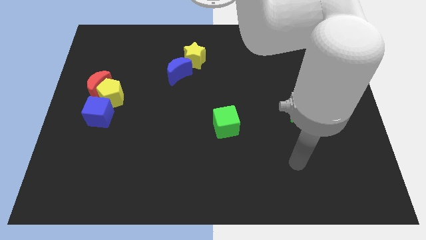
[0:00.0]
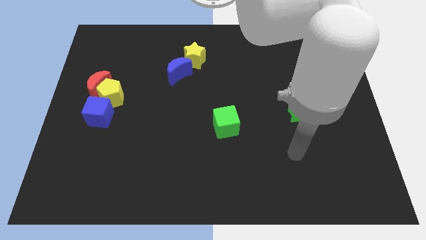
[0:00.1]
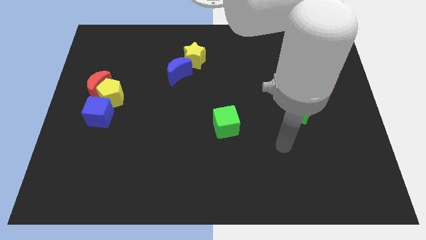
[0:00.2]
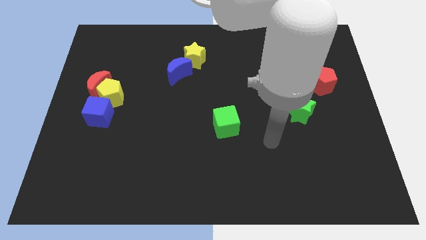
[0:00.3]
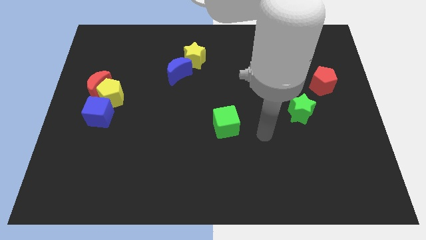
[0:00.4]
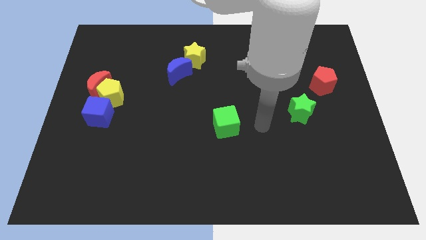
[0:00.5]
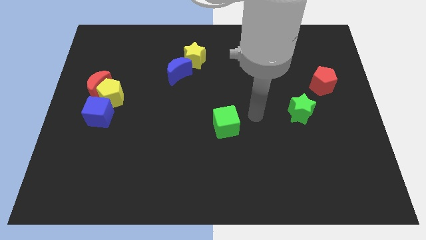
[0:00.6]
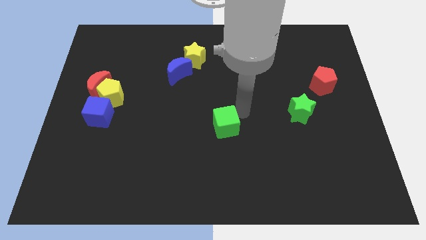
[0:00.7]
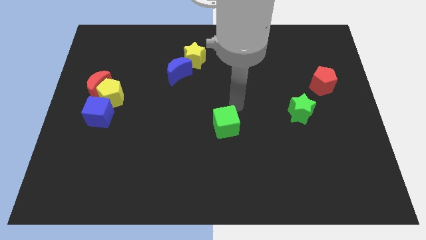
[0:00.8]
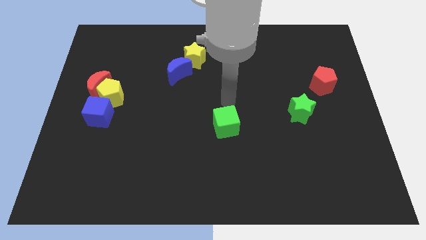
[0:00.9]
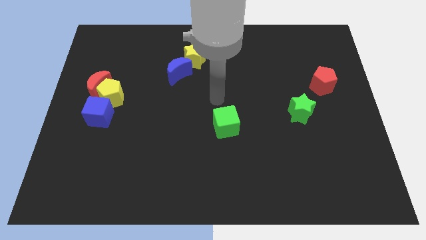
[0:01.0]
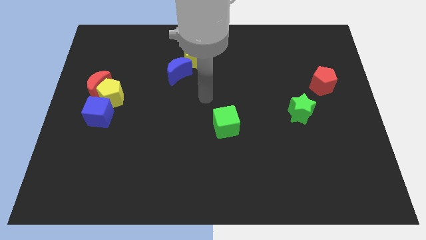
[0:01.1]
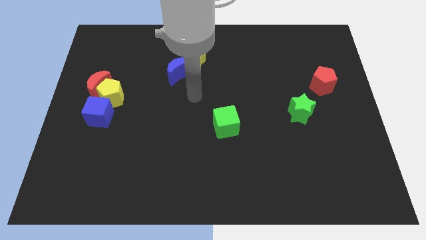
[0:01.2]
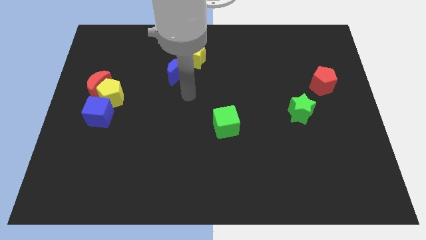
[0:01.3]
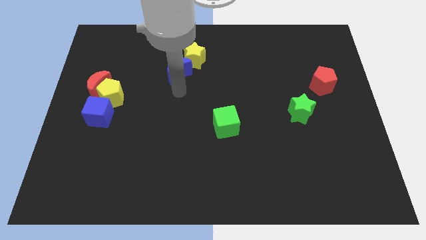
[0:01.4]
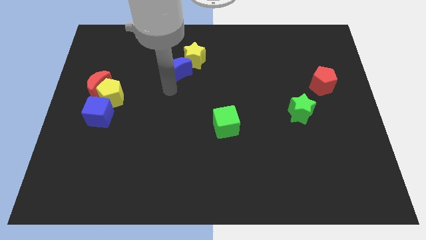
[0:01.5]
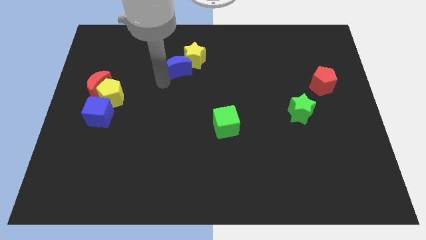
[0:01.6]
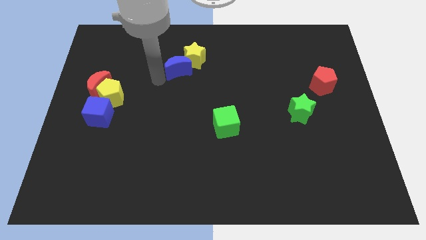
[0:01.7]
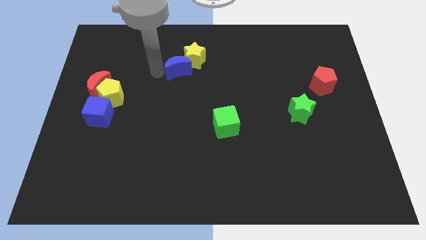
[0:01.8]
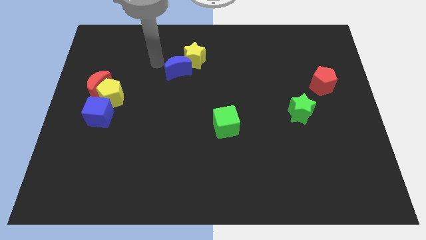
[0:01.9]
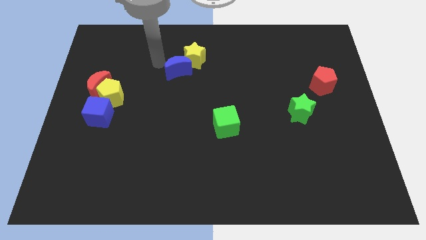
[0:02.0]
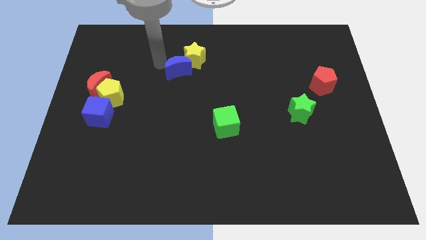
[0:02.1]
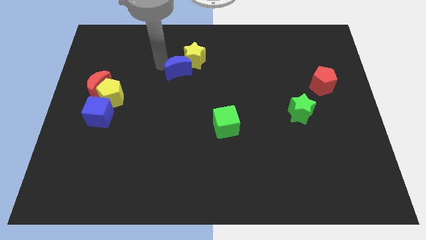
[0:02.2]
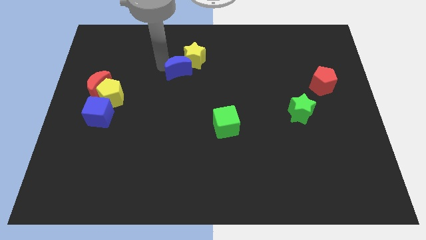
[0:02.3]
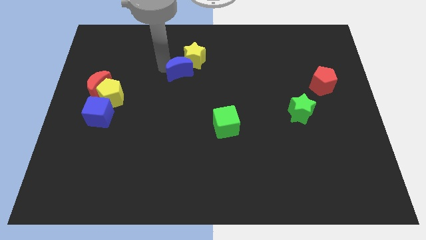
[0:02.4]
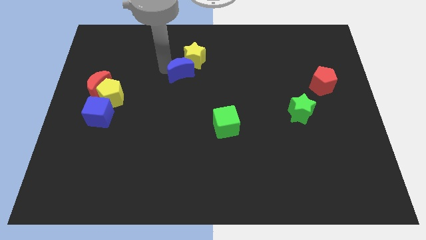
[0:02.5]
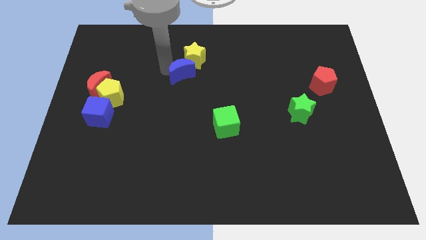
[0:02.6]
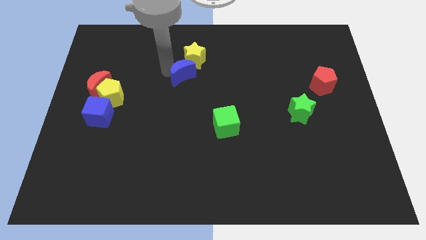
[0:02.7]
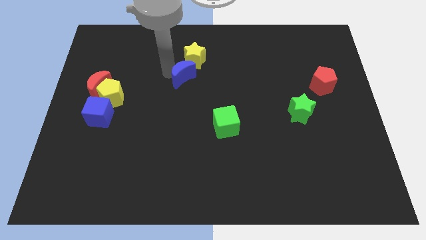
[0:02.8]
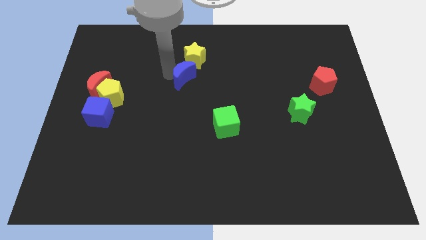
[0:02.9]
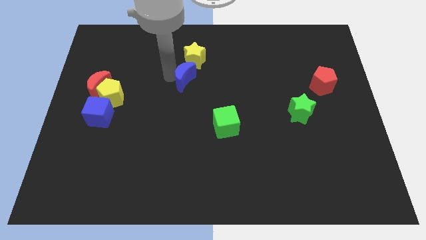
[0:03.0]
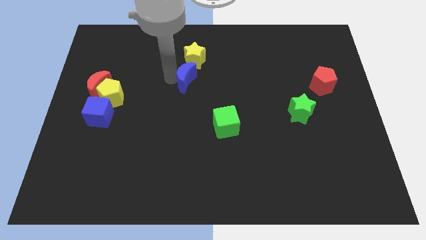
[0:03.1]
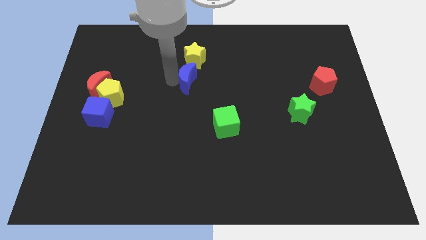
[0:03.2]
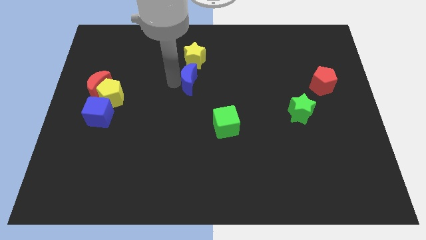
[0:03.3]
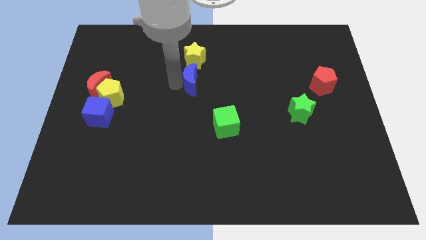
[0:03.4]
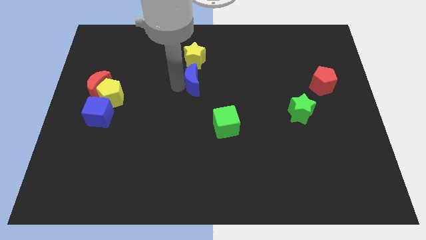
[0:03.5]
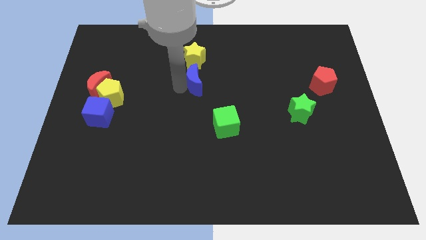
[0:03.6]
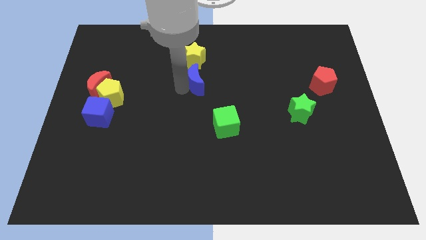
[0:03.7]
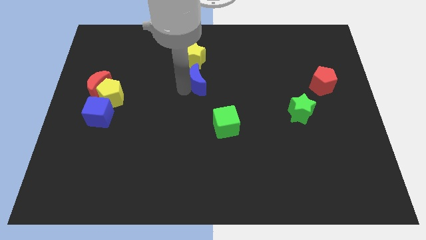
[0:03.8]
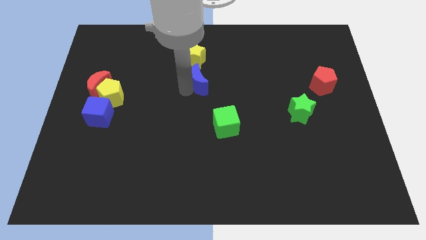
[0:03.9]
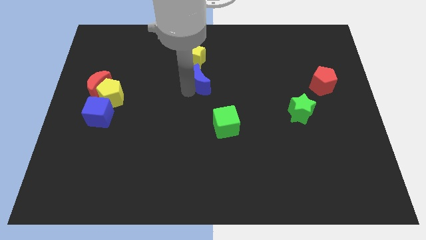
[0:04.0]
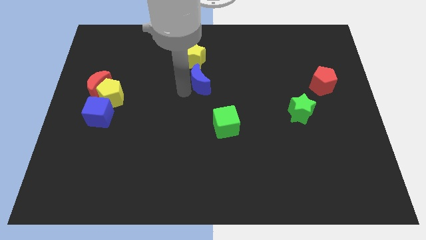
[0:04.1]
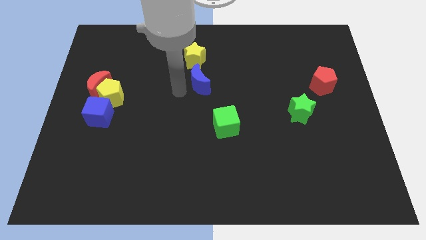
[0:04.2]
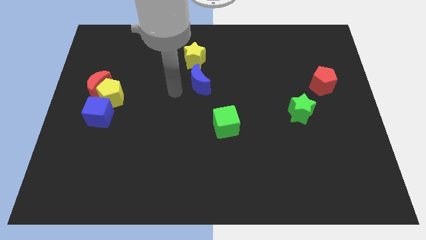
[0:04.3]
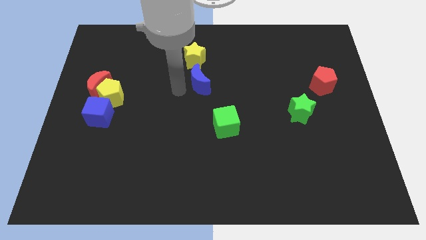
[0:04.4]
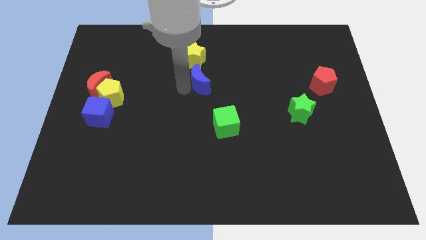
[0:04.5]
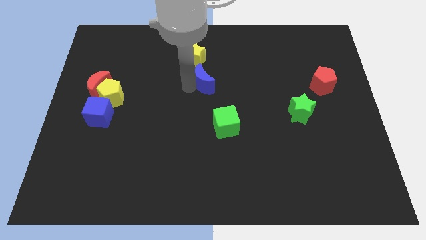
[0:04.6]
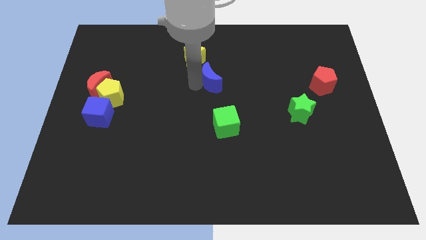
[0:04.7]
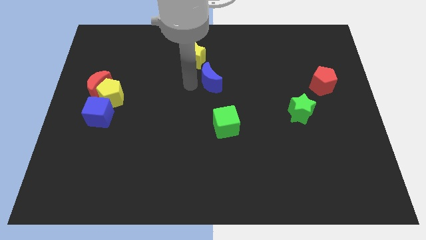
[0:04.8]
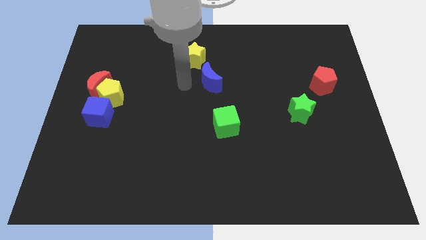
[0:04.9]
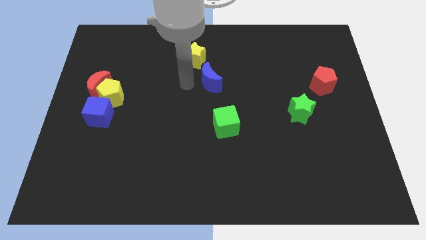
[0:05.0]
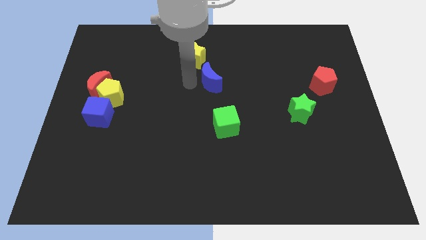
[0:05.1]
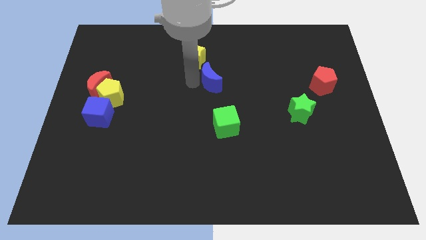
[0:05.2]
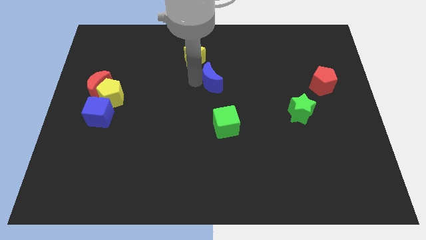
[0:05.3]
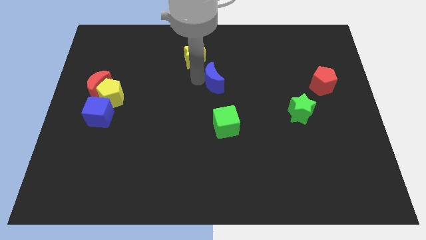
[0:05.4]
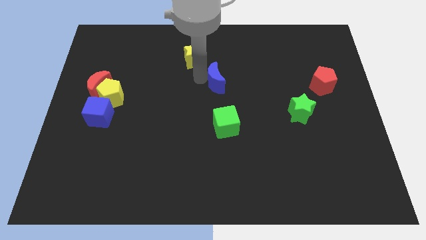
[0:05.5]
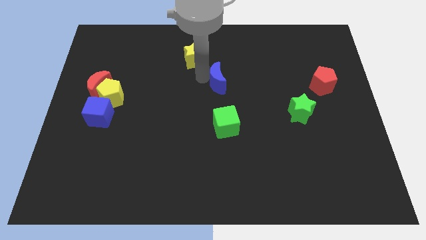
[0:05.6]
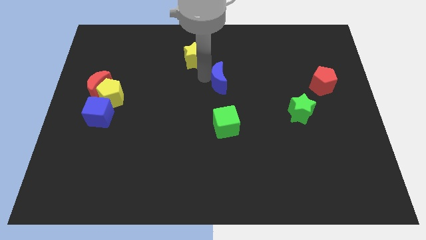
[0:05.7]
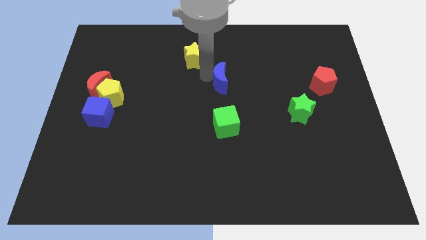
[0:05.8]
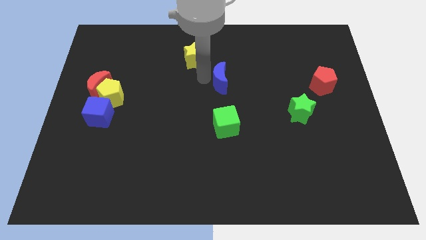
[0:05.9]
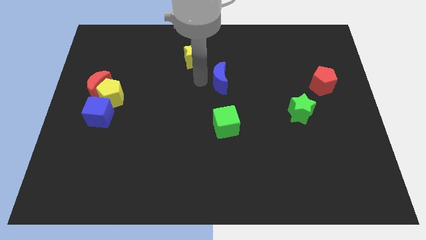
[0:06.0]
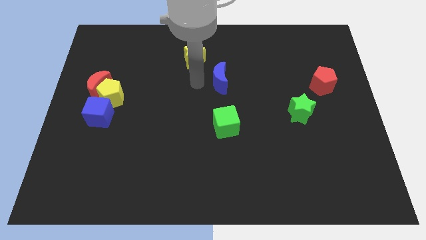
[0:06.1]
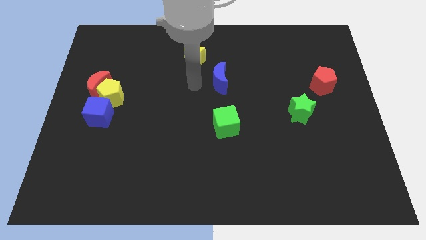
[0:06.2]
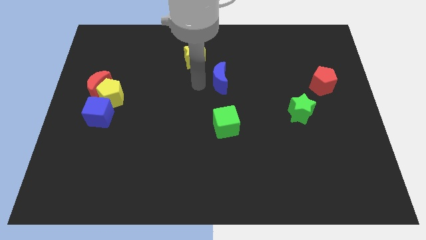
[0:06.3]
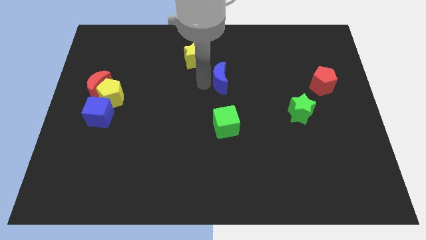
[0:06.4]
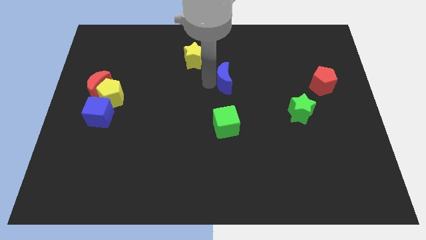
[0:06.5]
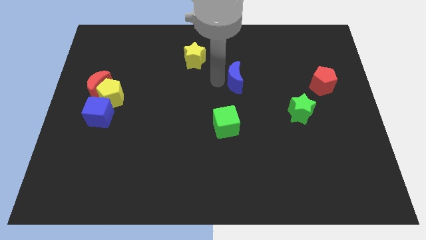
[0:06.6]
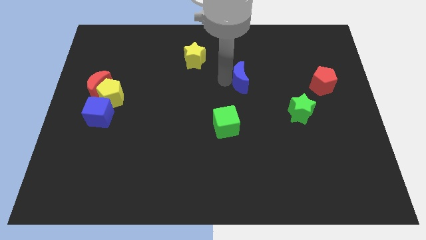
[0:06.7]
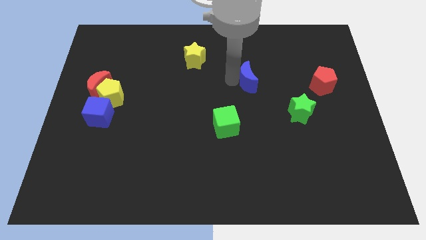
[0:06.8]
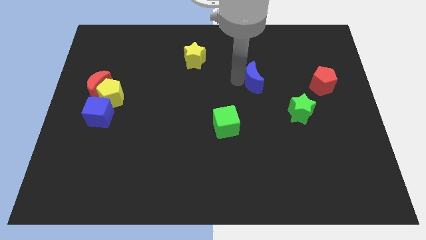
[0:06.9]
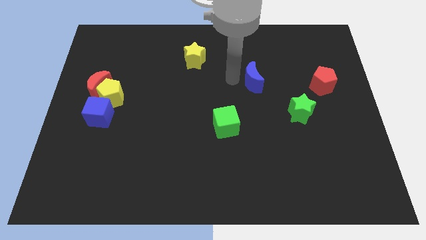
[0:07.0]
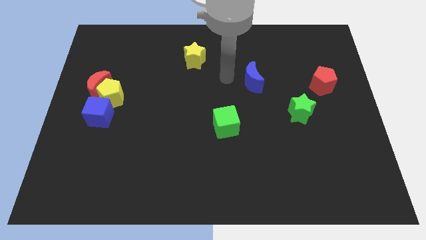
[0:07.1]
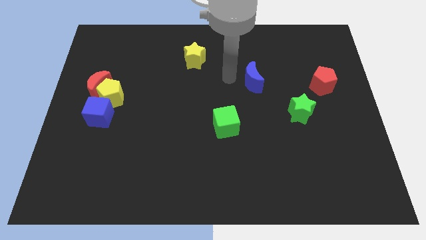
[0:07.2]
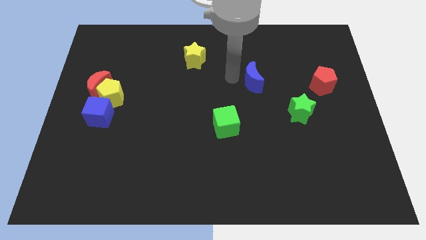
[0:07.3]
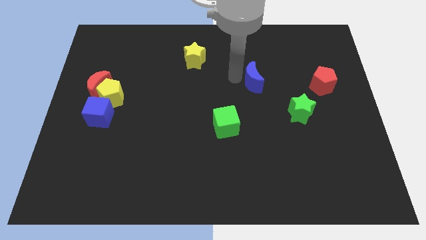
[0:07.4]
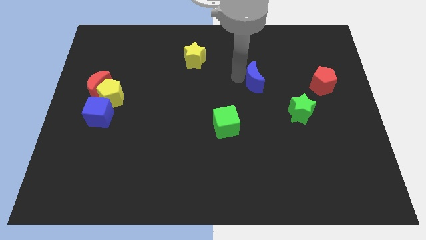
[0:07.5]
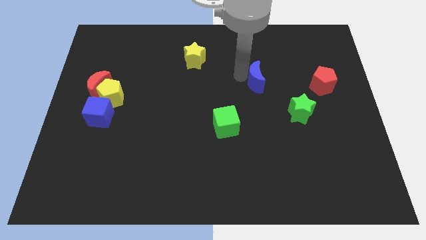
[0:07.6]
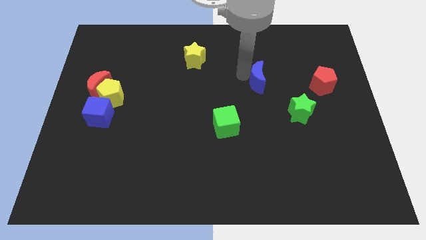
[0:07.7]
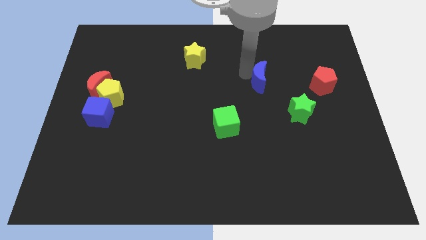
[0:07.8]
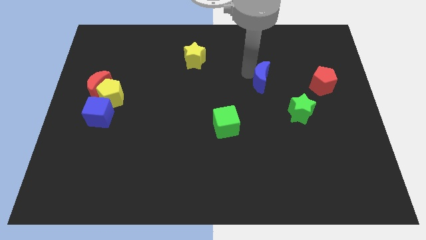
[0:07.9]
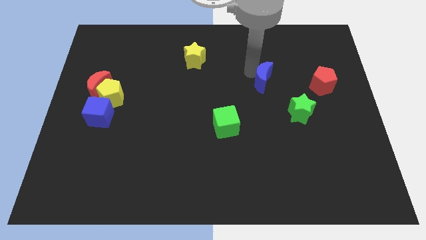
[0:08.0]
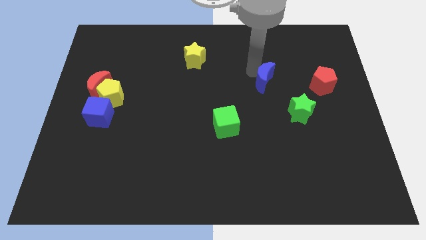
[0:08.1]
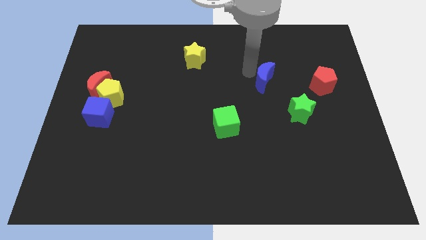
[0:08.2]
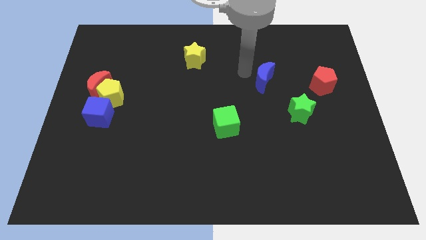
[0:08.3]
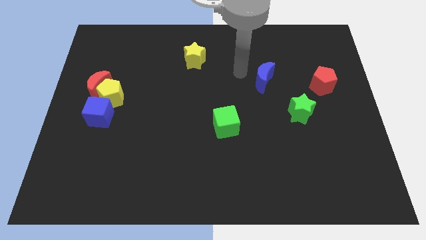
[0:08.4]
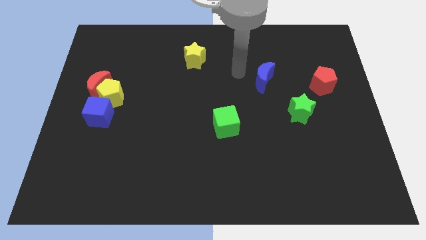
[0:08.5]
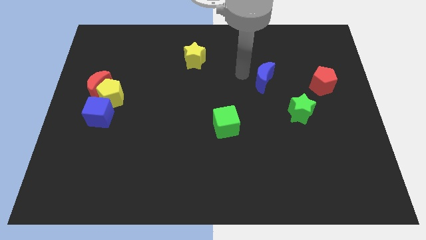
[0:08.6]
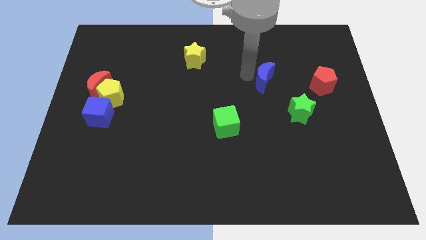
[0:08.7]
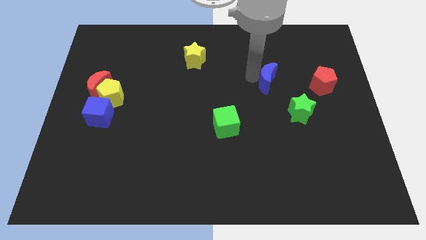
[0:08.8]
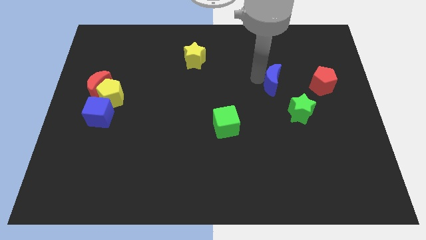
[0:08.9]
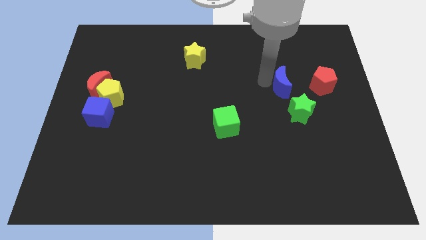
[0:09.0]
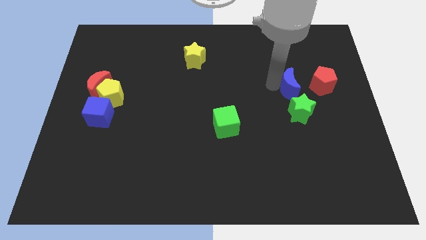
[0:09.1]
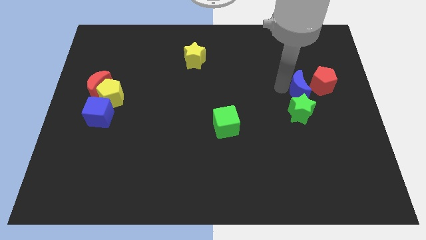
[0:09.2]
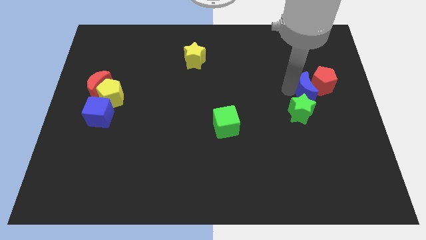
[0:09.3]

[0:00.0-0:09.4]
push the blue moon next to the red pentagon
